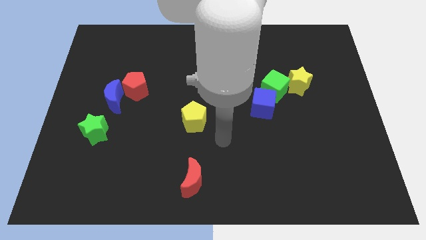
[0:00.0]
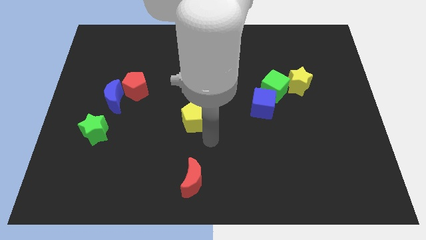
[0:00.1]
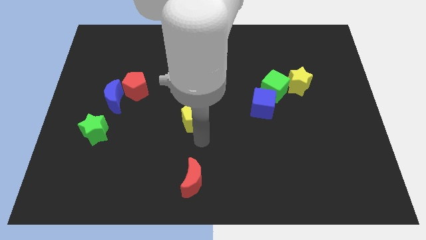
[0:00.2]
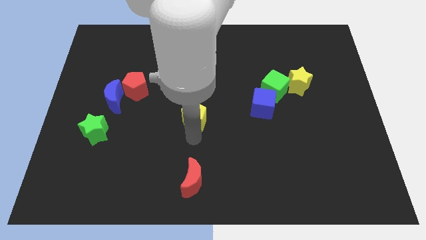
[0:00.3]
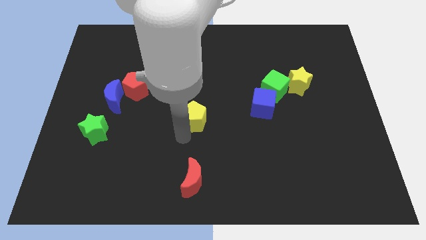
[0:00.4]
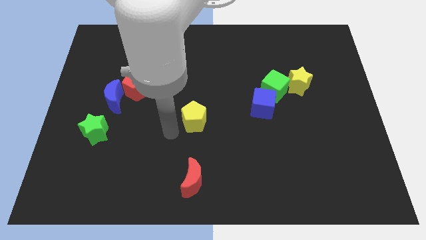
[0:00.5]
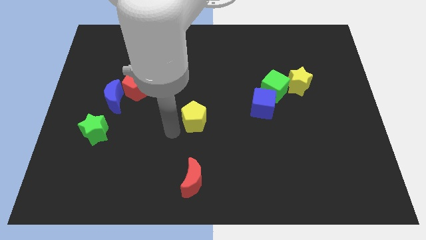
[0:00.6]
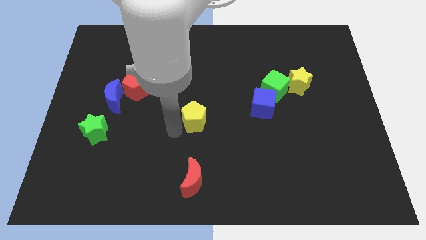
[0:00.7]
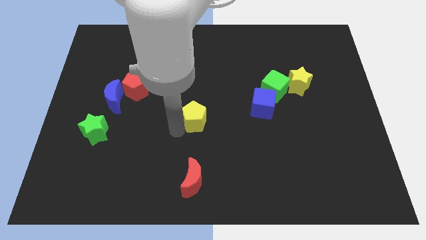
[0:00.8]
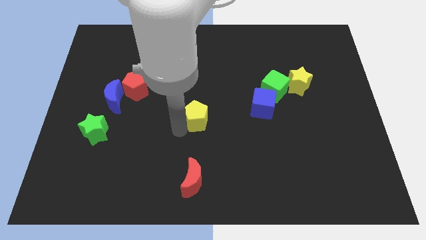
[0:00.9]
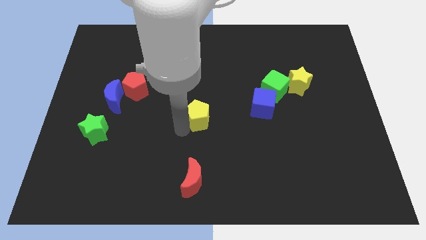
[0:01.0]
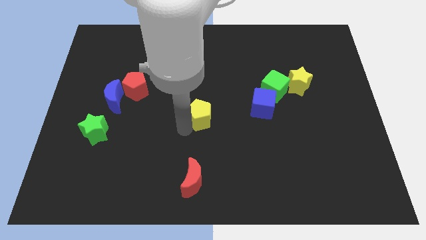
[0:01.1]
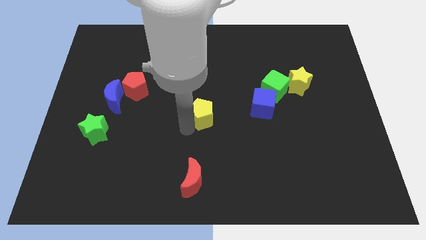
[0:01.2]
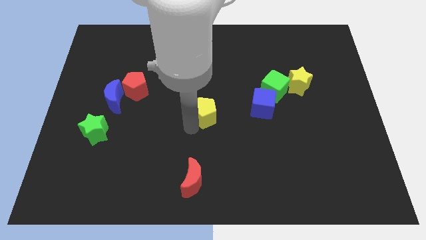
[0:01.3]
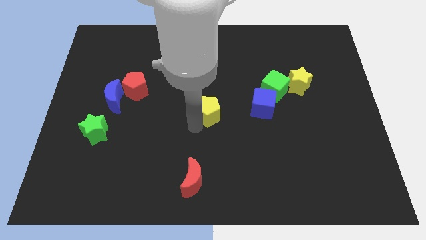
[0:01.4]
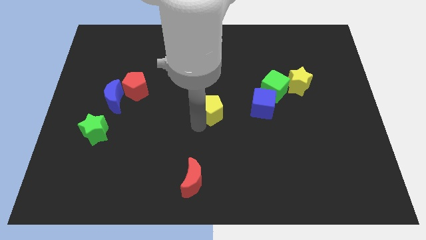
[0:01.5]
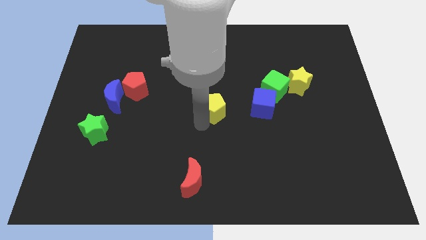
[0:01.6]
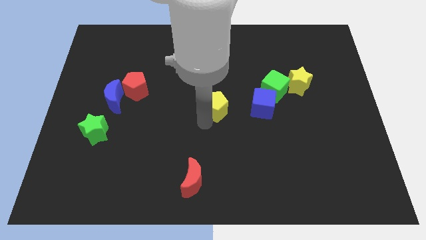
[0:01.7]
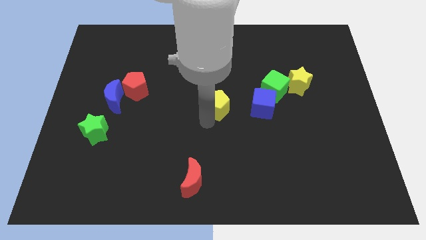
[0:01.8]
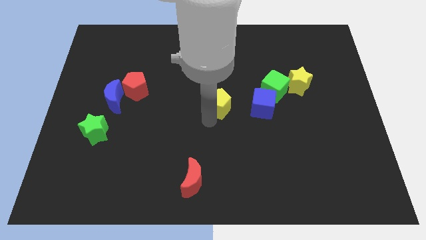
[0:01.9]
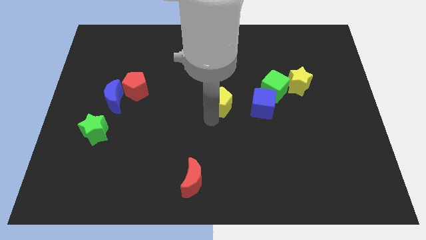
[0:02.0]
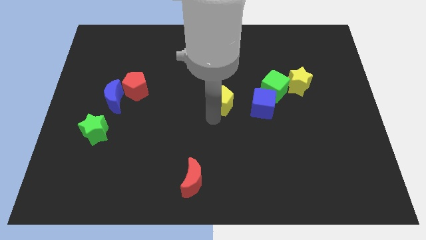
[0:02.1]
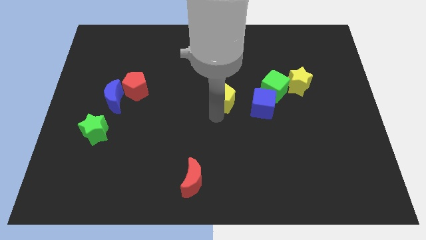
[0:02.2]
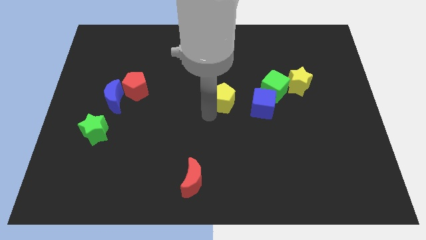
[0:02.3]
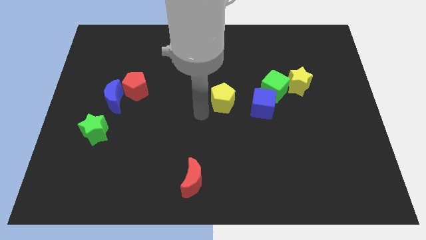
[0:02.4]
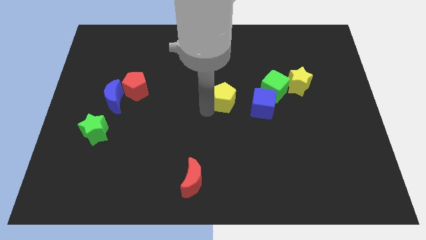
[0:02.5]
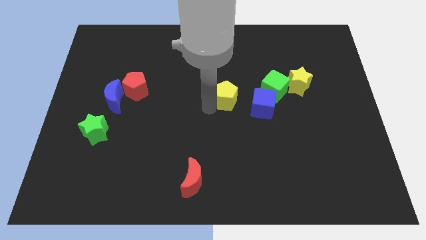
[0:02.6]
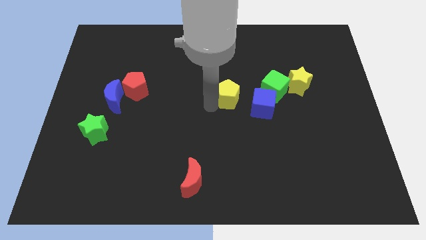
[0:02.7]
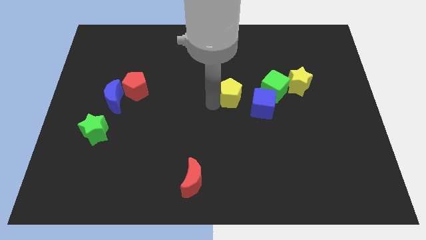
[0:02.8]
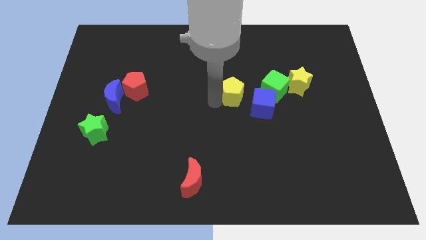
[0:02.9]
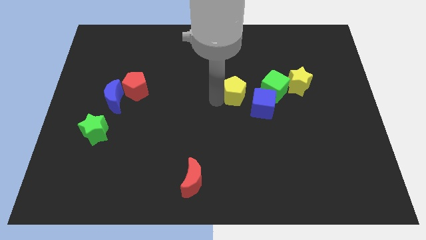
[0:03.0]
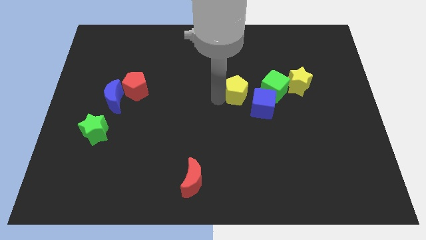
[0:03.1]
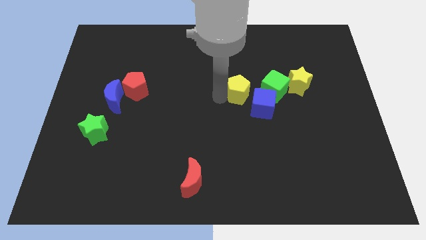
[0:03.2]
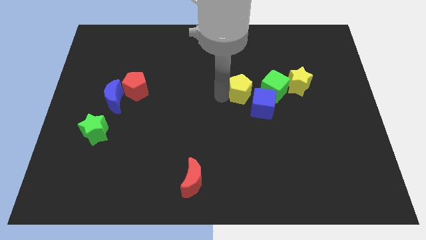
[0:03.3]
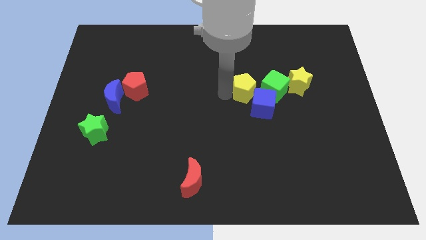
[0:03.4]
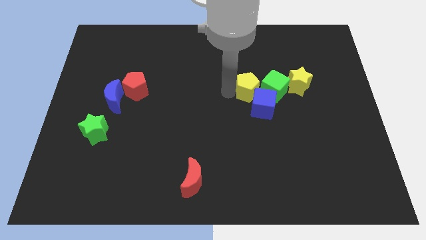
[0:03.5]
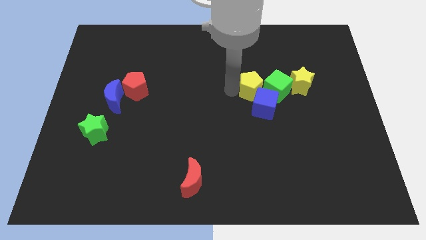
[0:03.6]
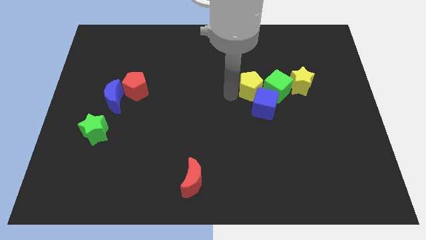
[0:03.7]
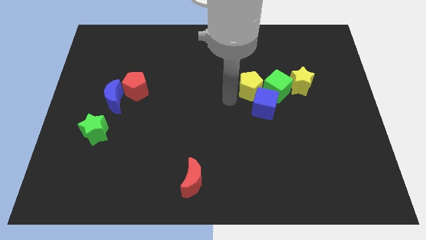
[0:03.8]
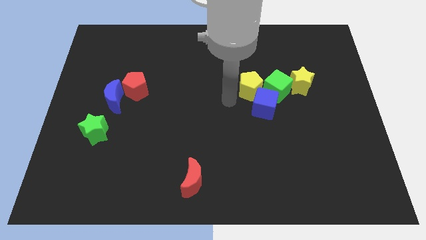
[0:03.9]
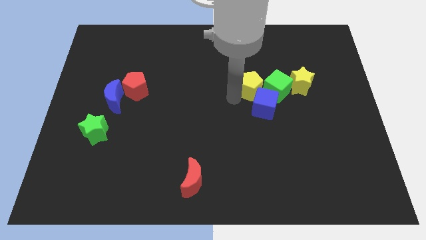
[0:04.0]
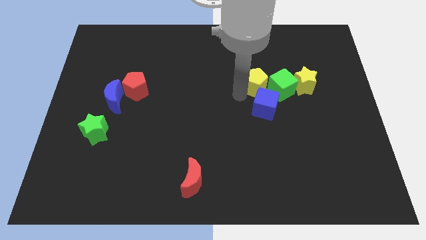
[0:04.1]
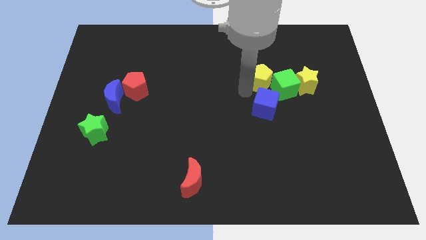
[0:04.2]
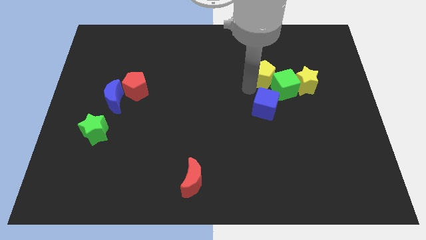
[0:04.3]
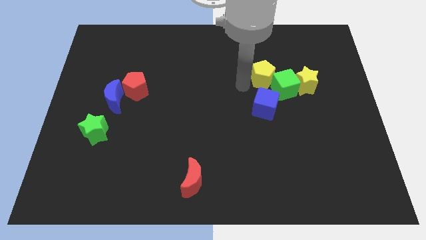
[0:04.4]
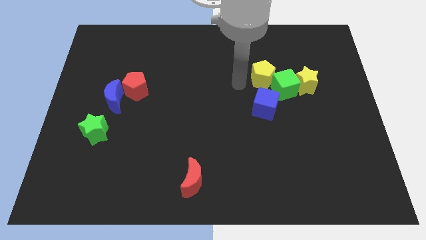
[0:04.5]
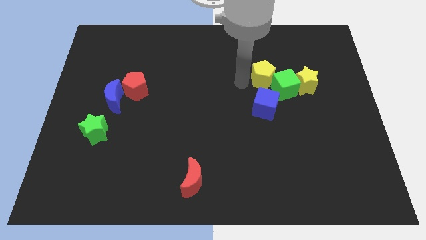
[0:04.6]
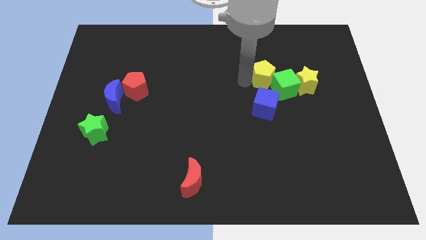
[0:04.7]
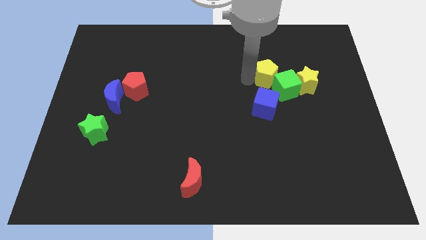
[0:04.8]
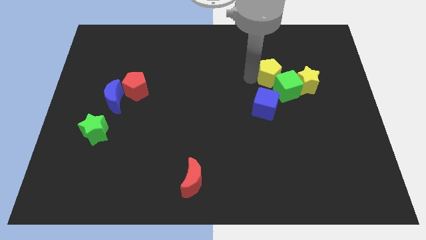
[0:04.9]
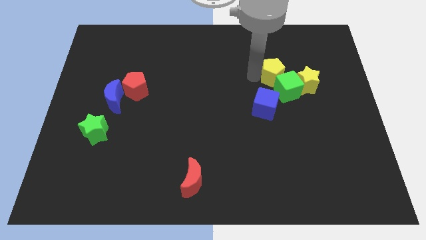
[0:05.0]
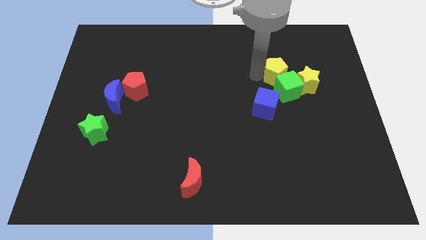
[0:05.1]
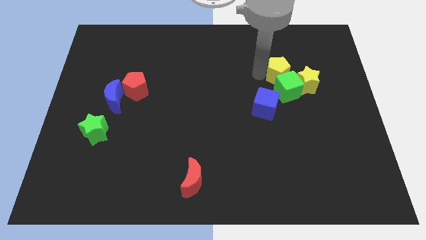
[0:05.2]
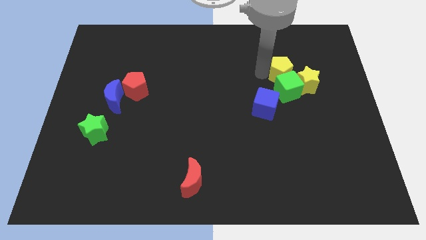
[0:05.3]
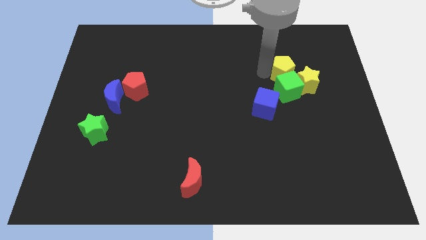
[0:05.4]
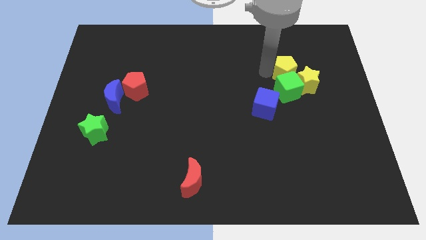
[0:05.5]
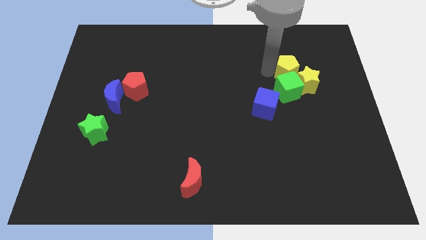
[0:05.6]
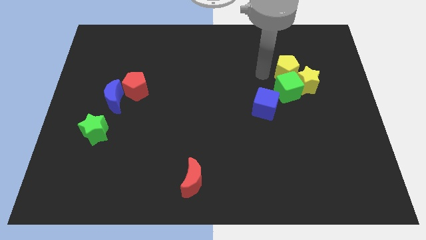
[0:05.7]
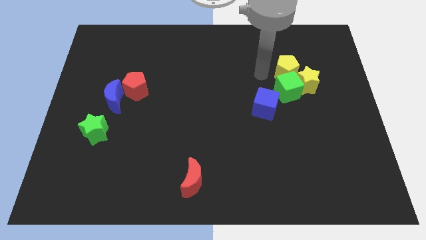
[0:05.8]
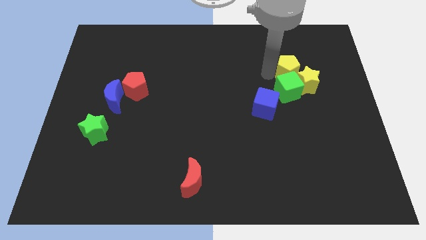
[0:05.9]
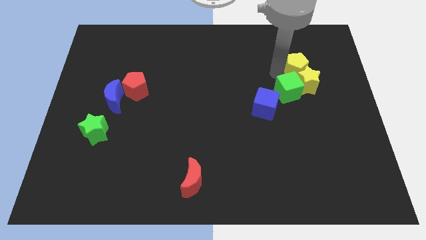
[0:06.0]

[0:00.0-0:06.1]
push the yellow pentagon diagonally up and to the right of the yellow star

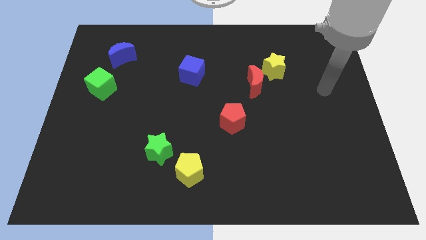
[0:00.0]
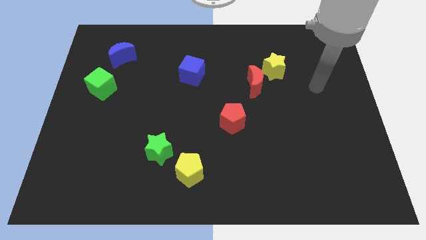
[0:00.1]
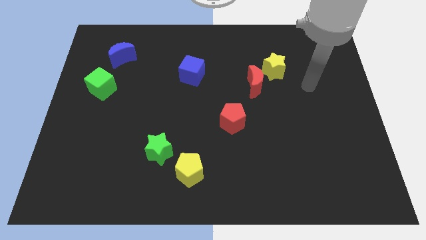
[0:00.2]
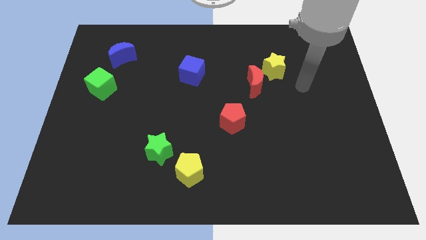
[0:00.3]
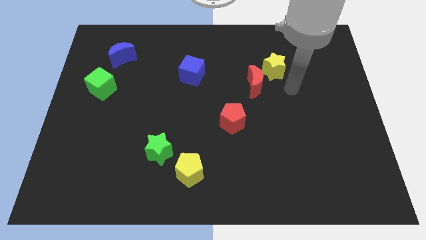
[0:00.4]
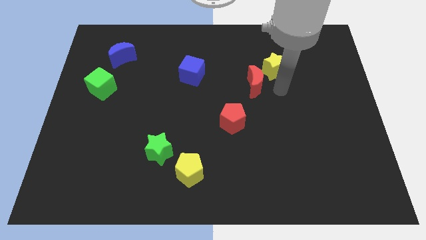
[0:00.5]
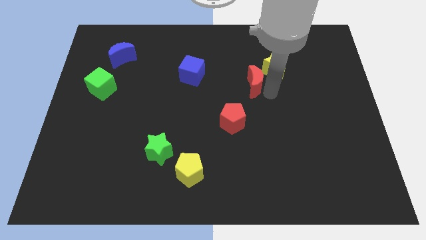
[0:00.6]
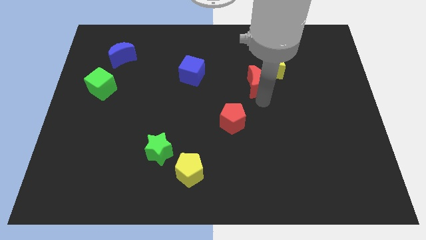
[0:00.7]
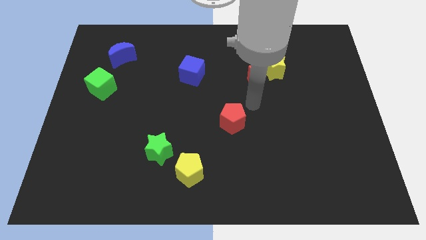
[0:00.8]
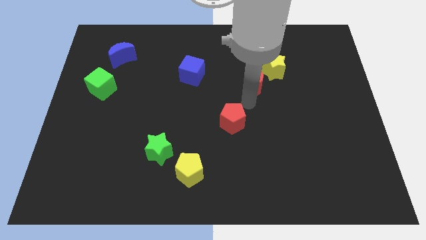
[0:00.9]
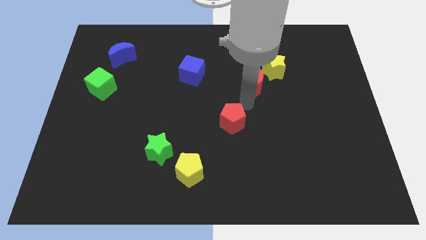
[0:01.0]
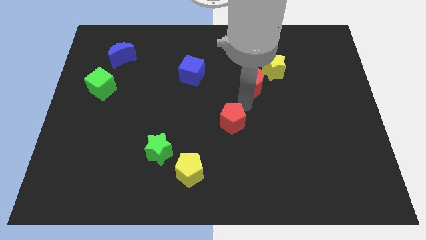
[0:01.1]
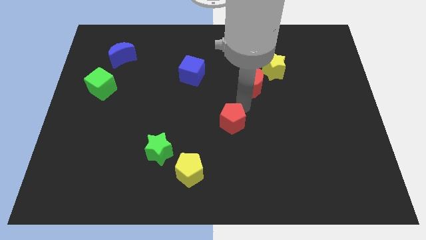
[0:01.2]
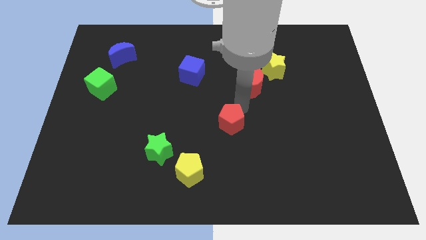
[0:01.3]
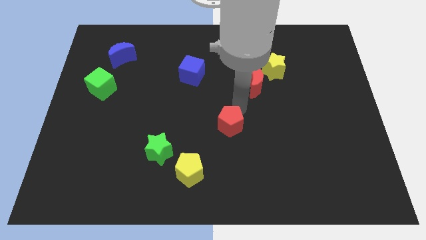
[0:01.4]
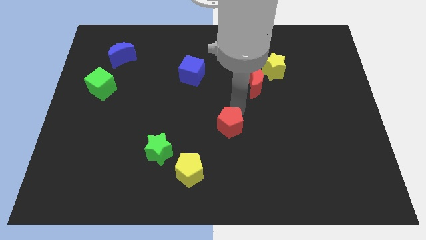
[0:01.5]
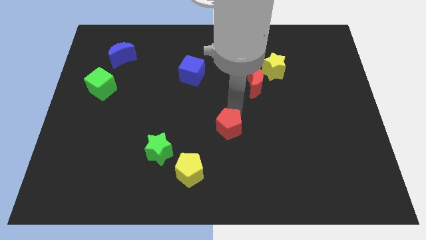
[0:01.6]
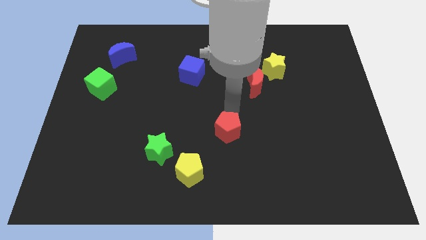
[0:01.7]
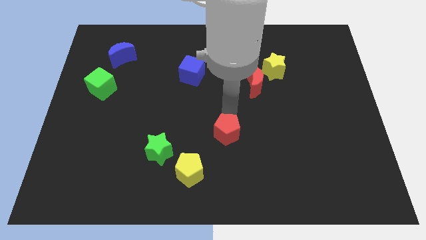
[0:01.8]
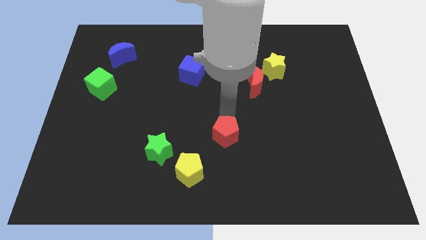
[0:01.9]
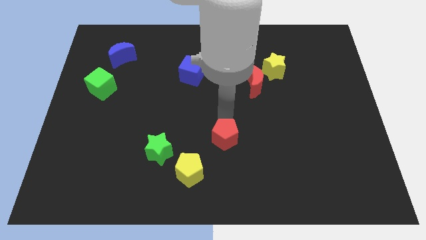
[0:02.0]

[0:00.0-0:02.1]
slide the red pentagon to the right of the green star
